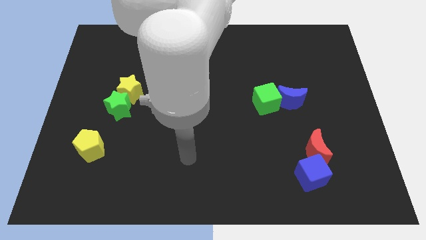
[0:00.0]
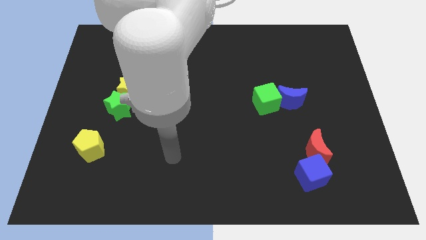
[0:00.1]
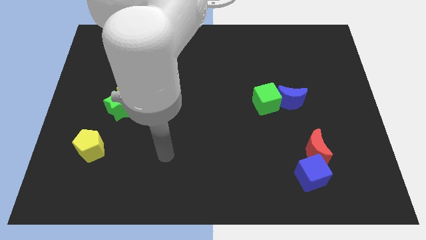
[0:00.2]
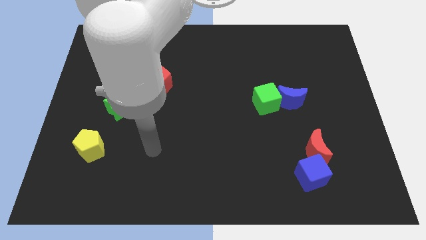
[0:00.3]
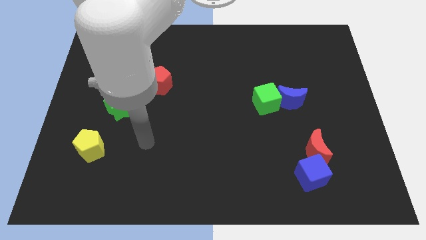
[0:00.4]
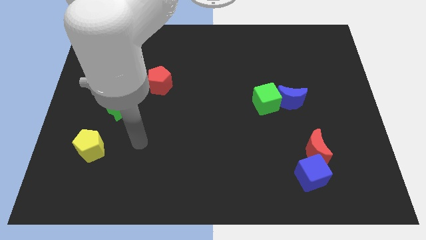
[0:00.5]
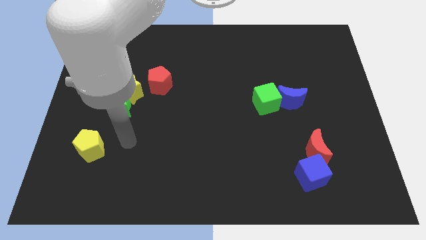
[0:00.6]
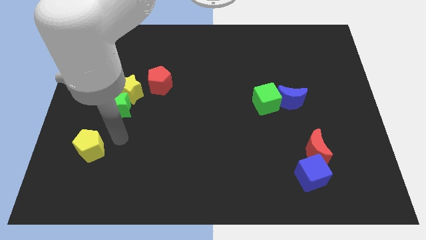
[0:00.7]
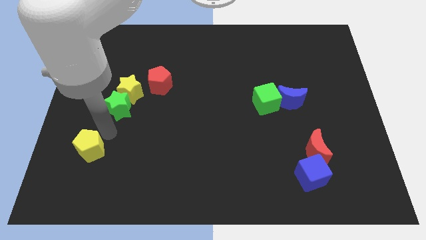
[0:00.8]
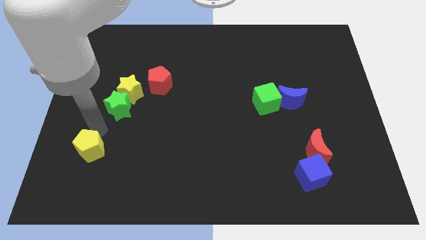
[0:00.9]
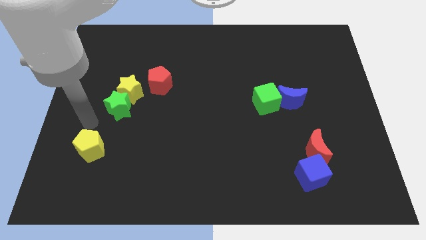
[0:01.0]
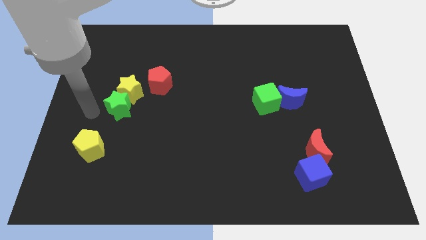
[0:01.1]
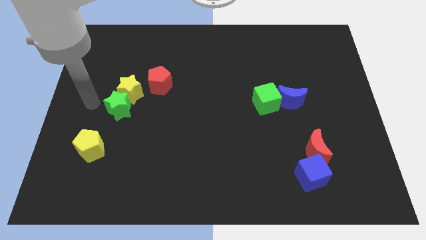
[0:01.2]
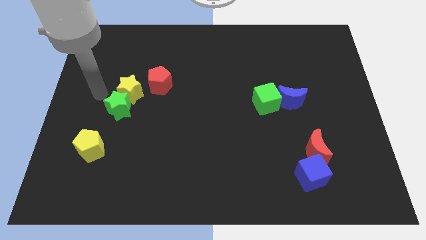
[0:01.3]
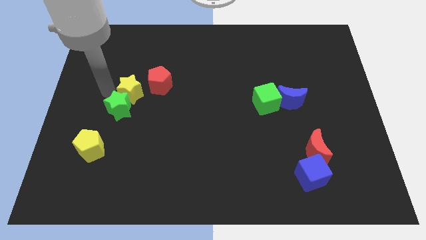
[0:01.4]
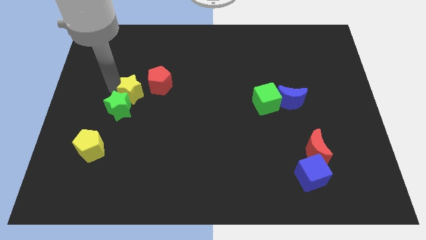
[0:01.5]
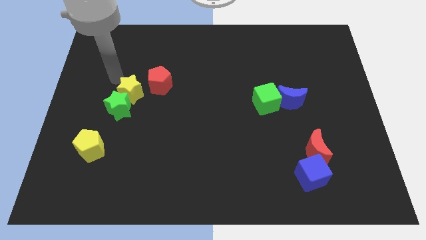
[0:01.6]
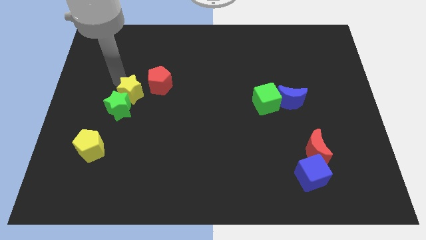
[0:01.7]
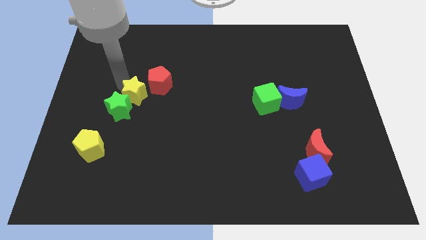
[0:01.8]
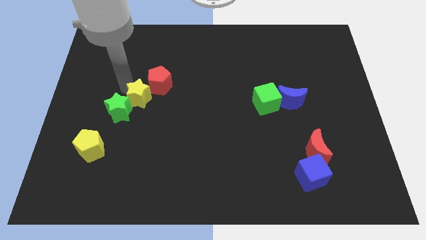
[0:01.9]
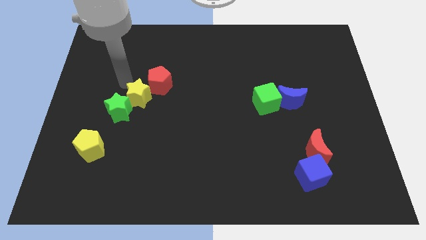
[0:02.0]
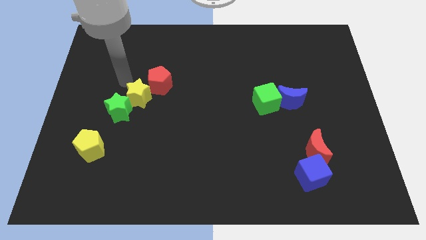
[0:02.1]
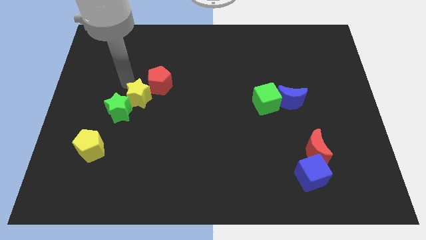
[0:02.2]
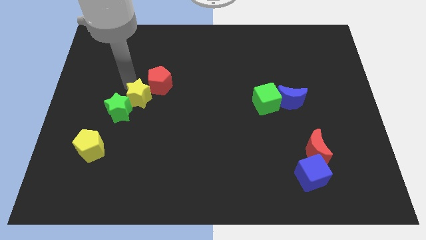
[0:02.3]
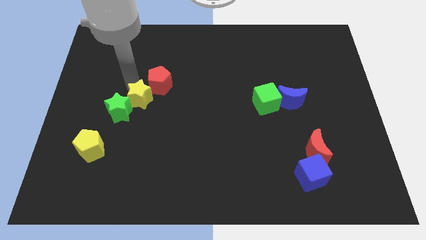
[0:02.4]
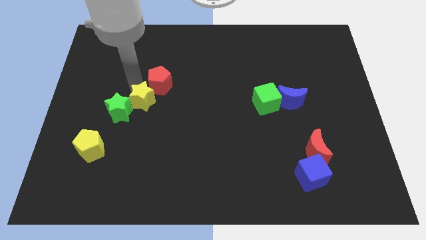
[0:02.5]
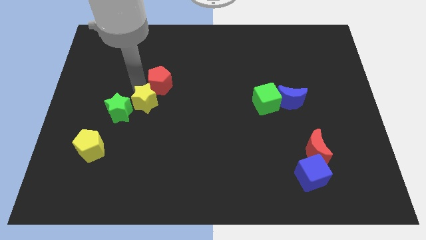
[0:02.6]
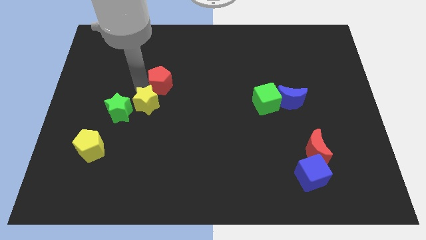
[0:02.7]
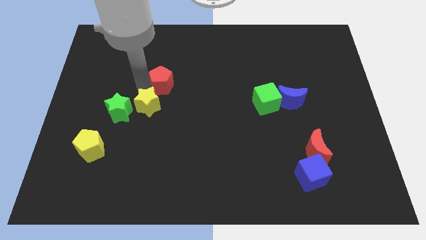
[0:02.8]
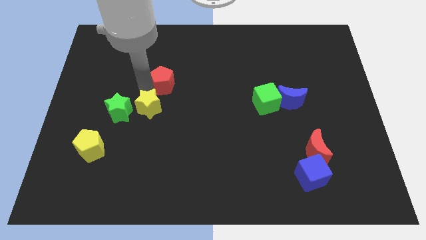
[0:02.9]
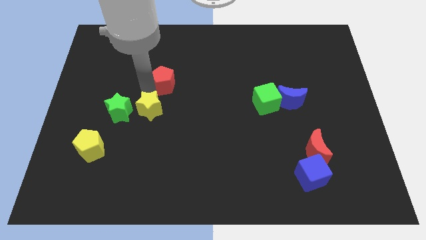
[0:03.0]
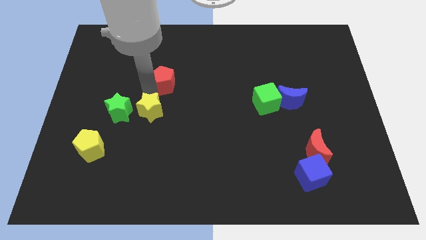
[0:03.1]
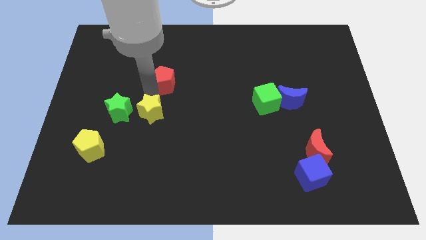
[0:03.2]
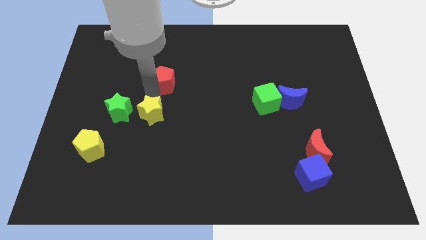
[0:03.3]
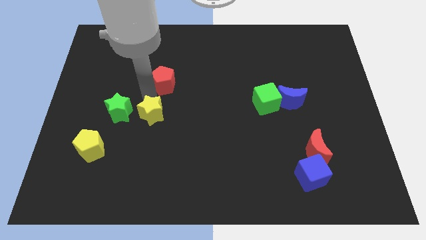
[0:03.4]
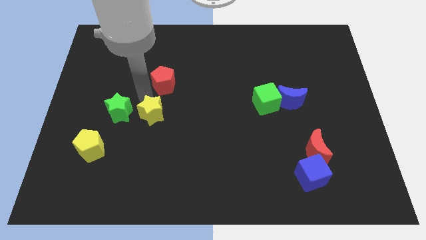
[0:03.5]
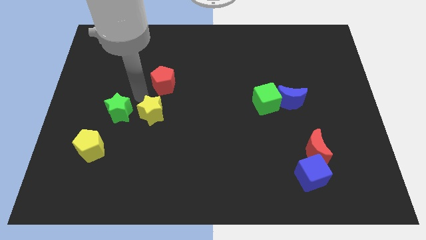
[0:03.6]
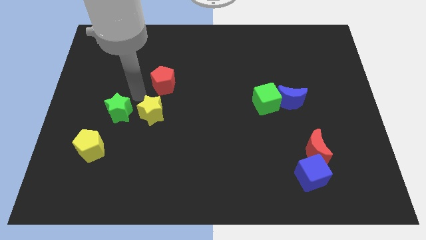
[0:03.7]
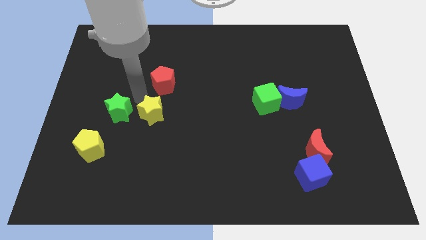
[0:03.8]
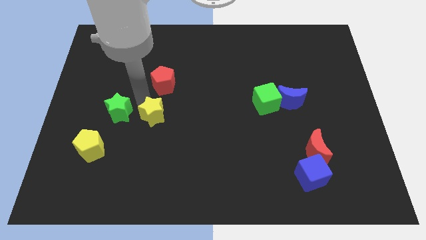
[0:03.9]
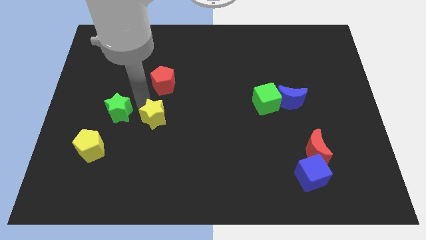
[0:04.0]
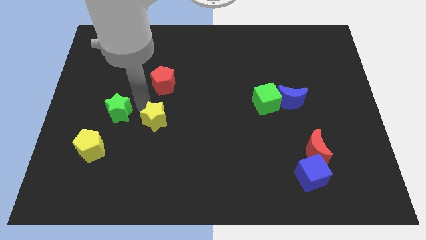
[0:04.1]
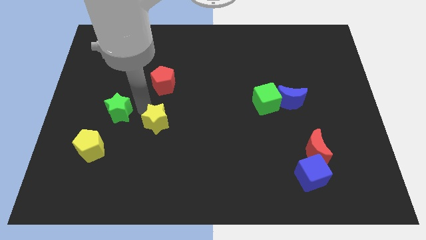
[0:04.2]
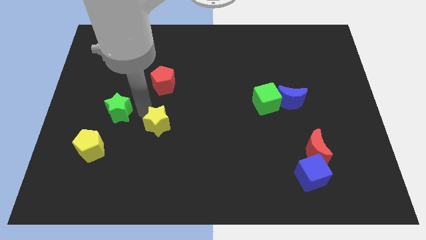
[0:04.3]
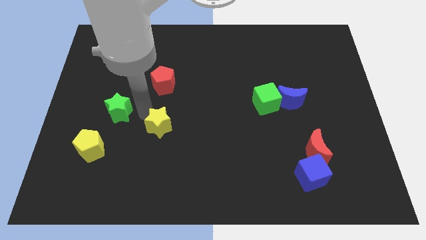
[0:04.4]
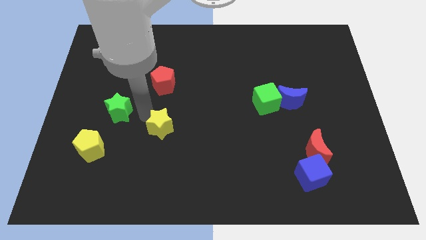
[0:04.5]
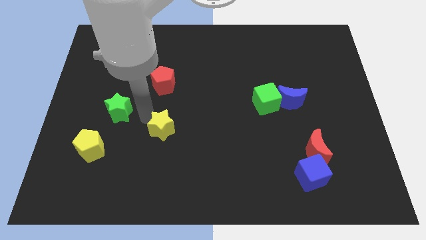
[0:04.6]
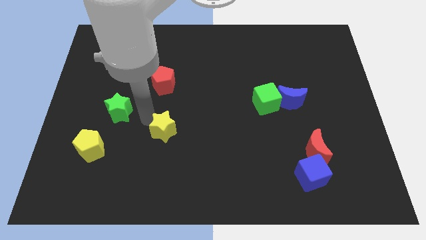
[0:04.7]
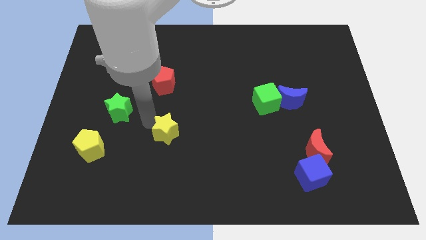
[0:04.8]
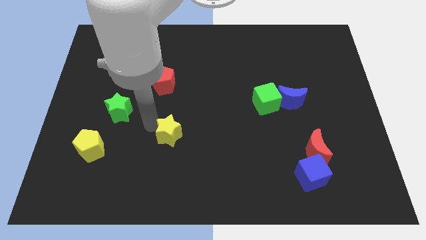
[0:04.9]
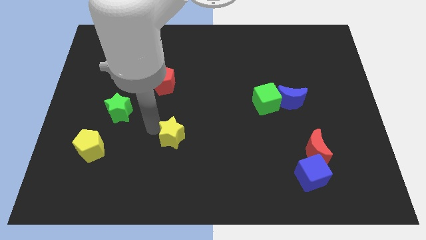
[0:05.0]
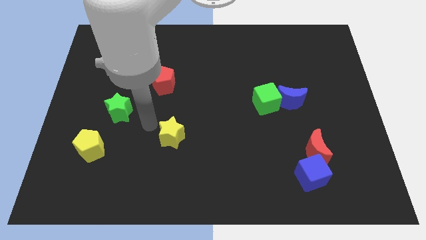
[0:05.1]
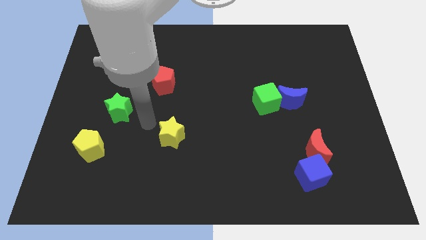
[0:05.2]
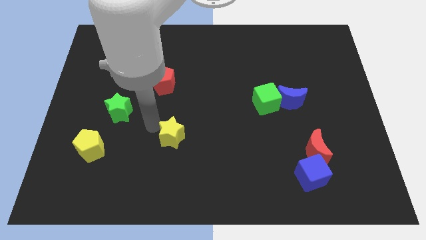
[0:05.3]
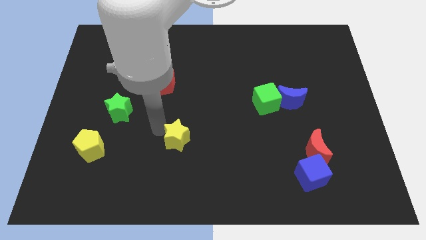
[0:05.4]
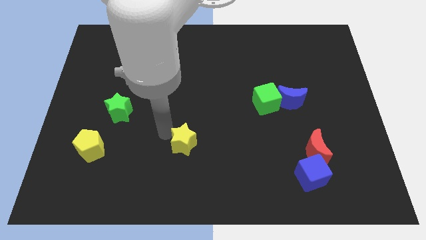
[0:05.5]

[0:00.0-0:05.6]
push the yellow star downwards and to the right diagonally

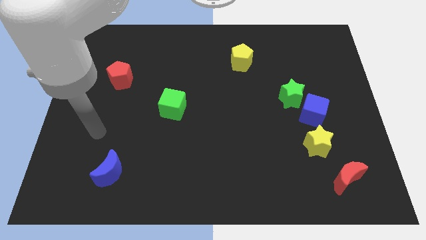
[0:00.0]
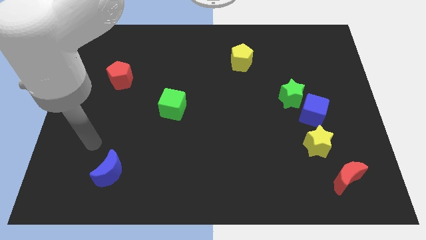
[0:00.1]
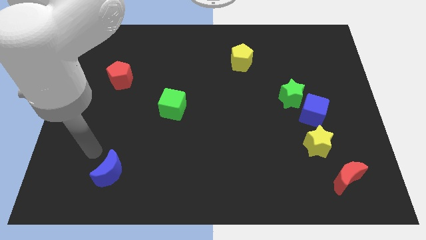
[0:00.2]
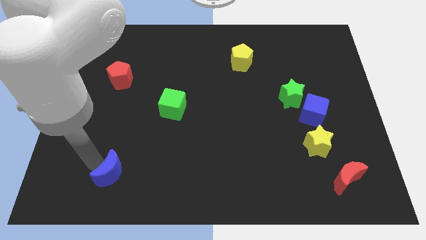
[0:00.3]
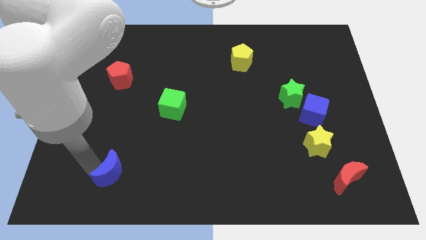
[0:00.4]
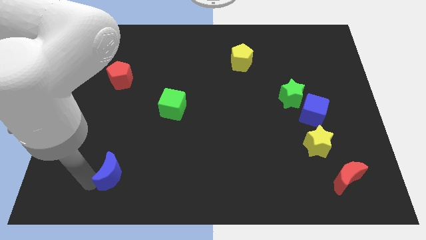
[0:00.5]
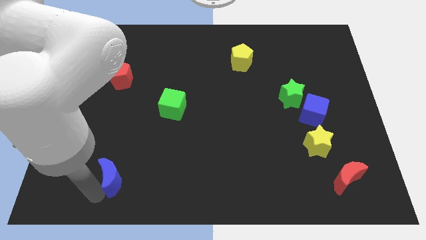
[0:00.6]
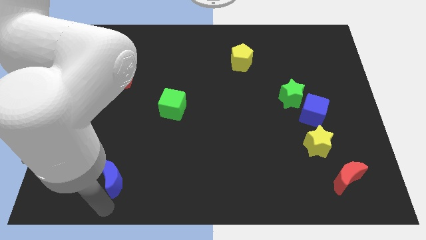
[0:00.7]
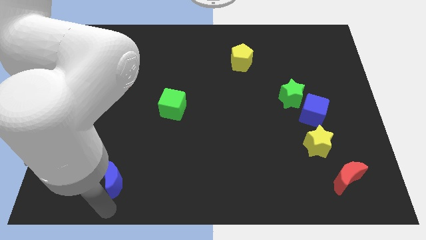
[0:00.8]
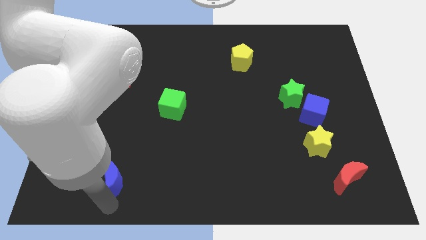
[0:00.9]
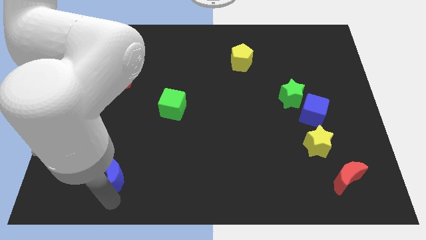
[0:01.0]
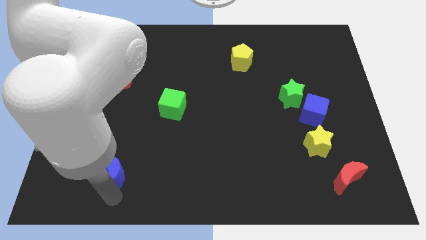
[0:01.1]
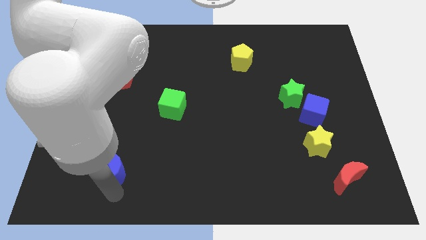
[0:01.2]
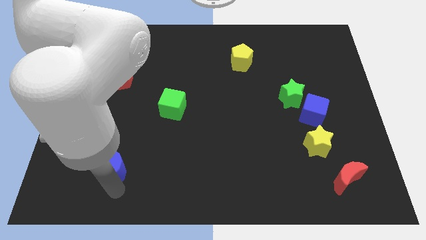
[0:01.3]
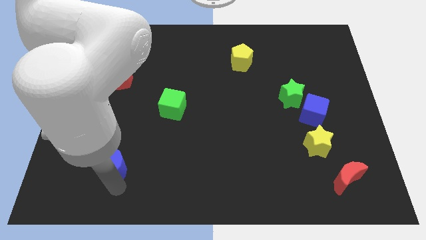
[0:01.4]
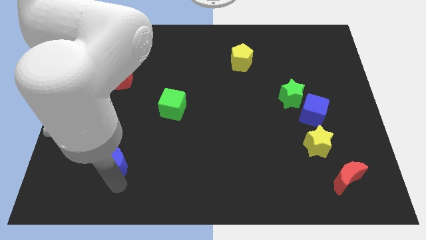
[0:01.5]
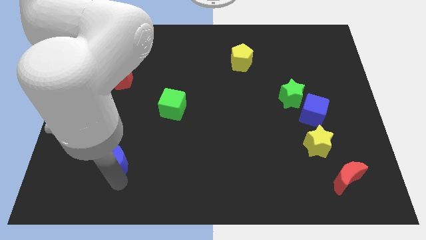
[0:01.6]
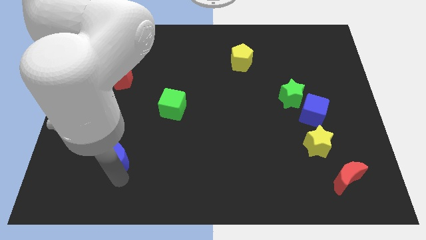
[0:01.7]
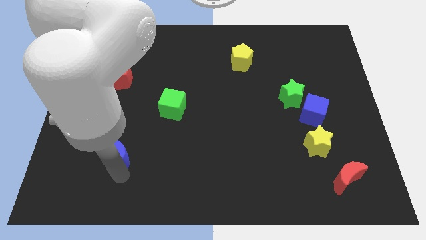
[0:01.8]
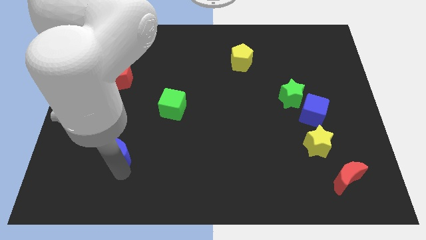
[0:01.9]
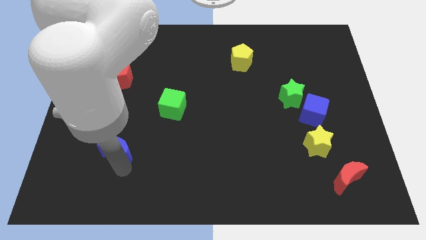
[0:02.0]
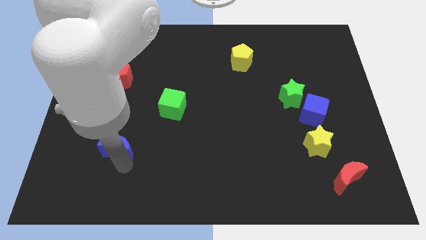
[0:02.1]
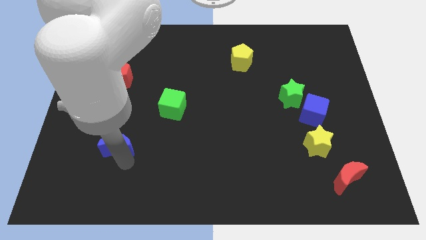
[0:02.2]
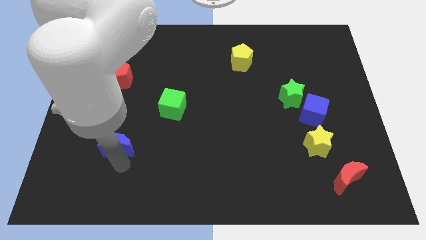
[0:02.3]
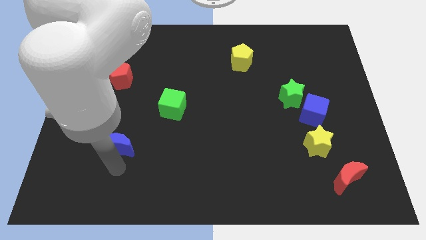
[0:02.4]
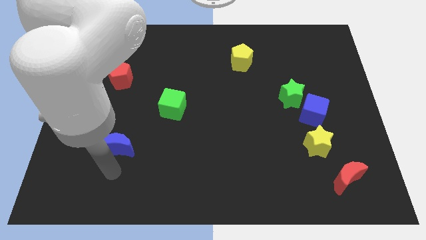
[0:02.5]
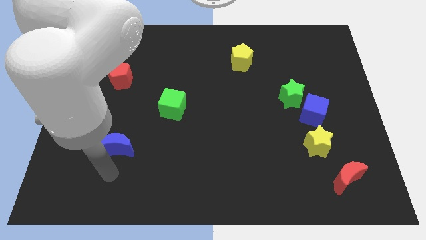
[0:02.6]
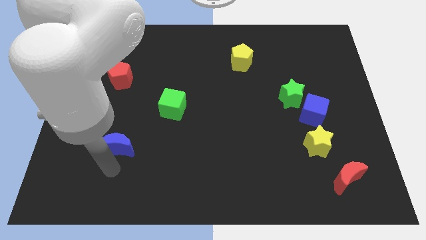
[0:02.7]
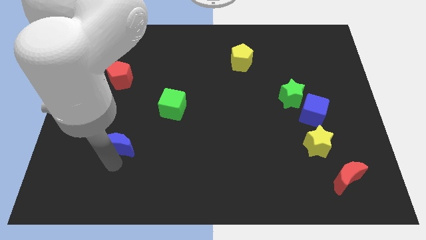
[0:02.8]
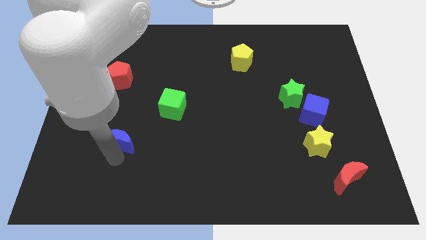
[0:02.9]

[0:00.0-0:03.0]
move the blue moon somewhat upwards
